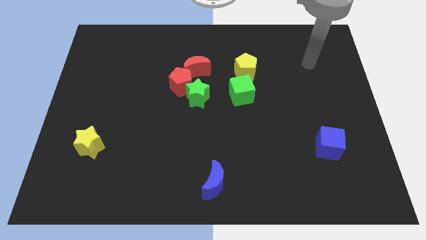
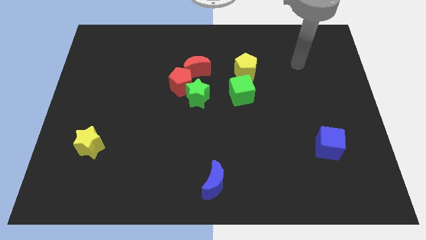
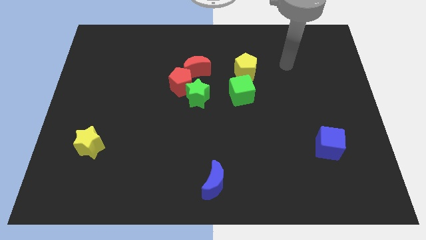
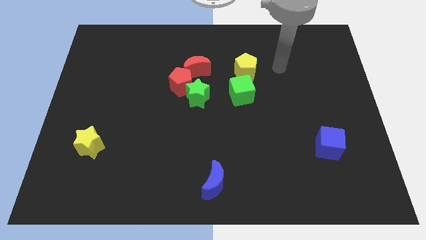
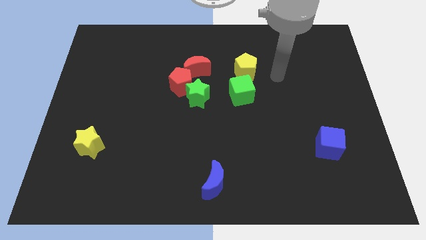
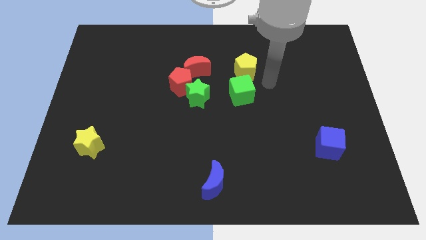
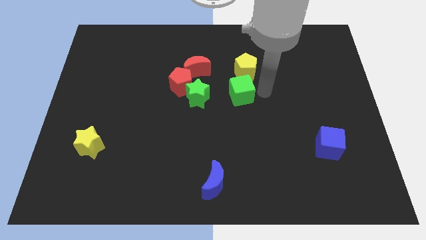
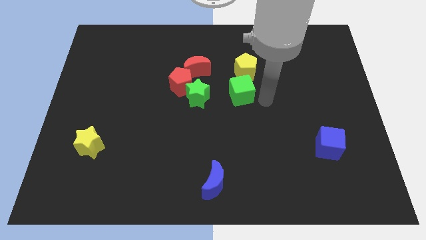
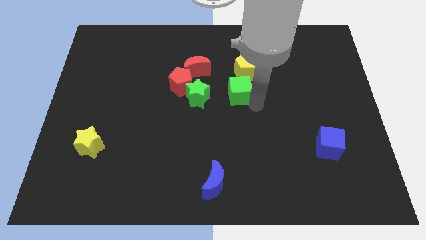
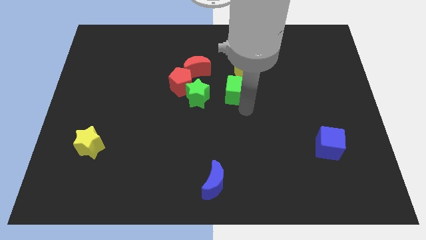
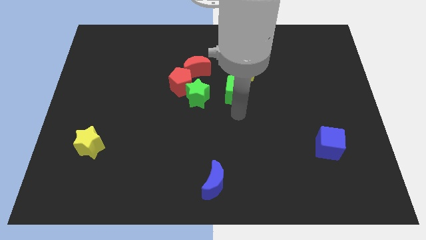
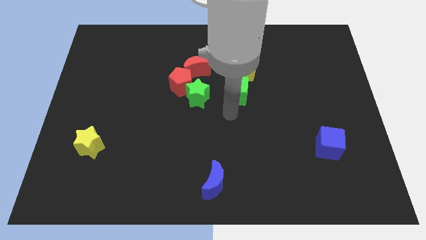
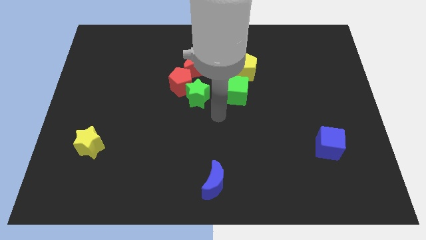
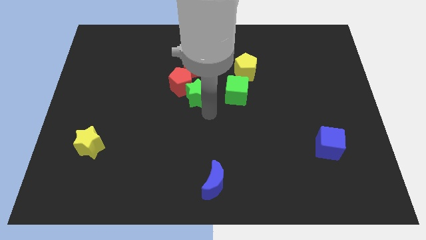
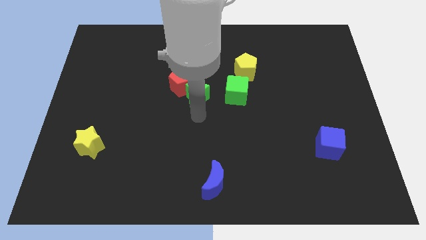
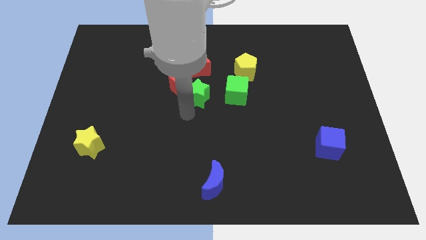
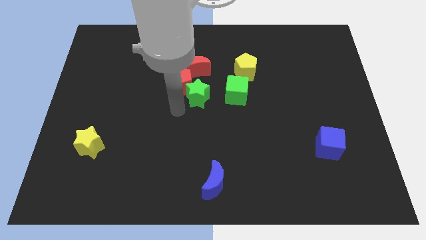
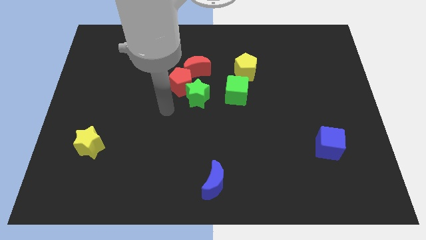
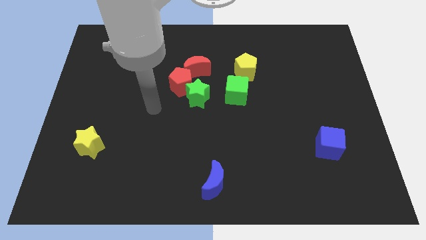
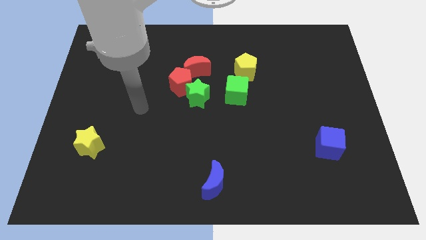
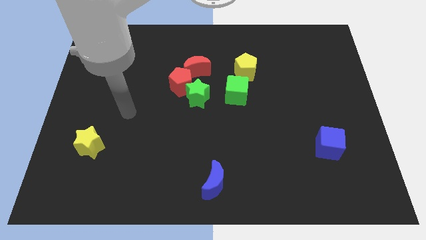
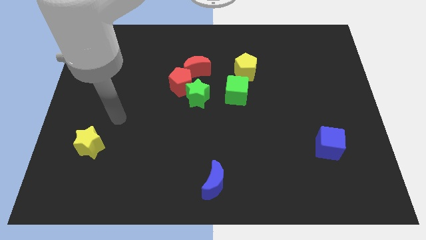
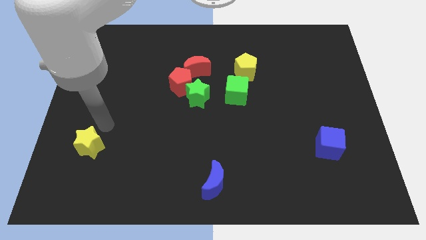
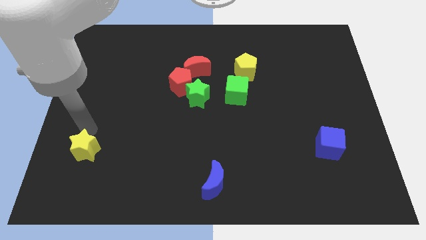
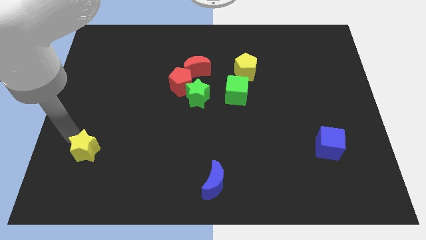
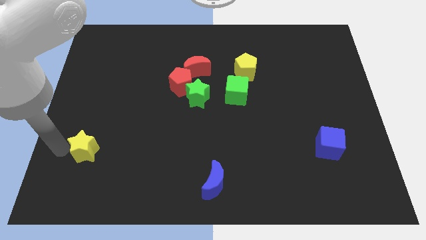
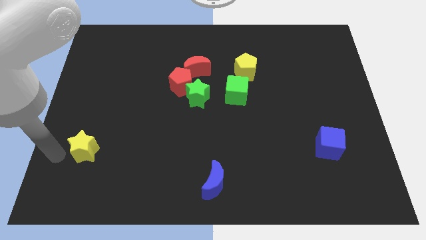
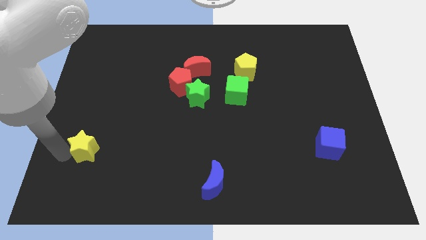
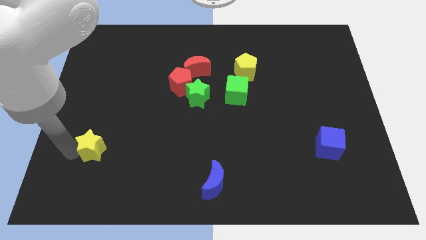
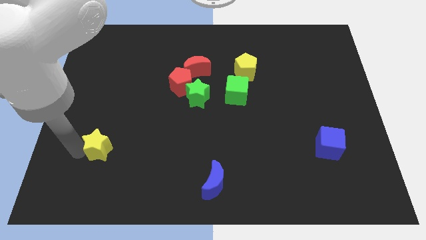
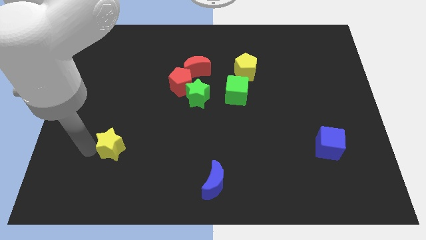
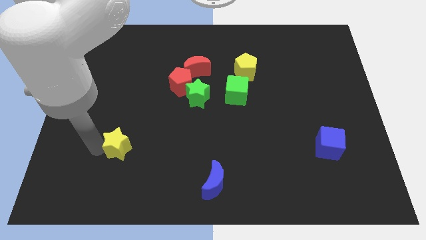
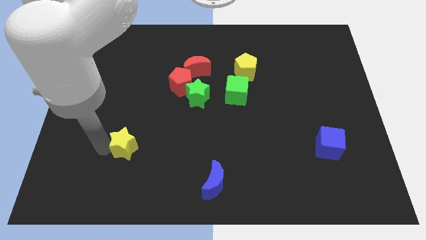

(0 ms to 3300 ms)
slightly slide the yellow star to the right

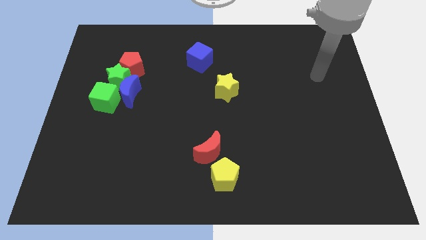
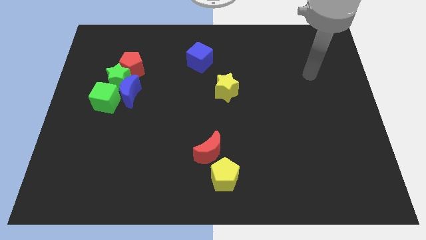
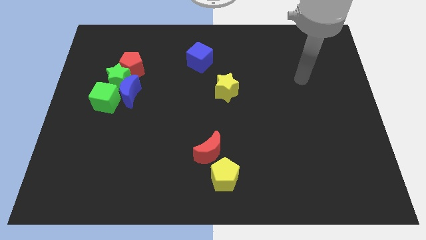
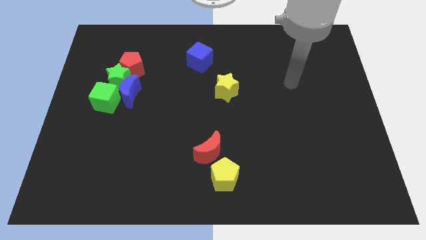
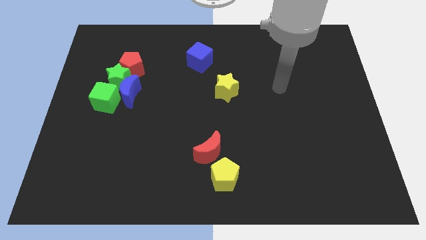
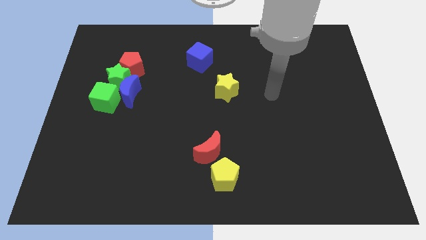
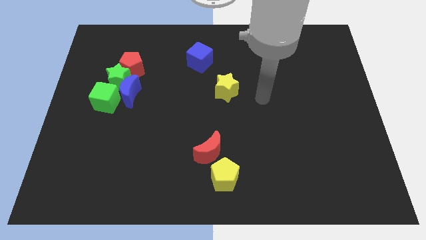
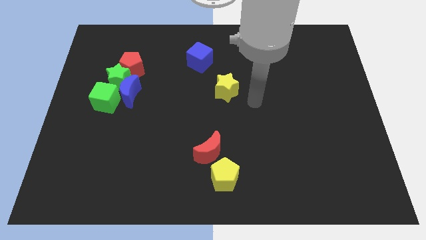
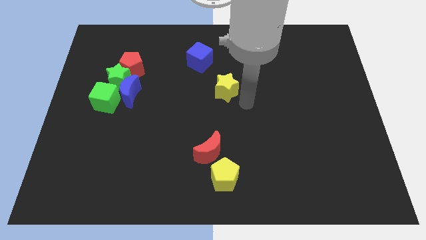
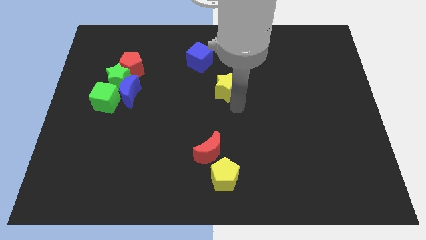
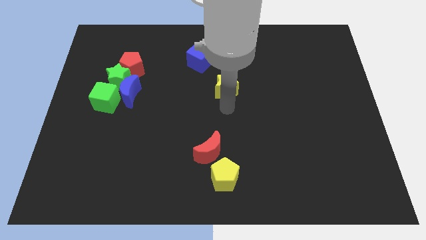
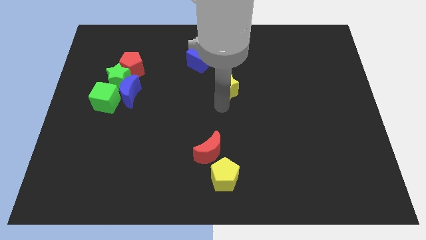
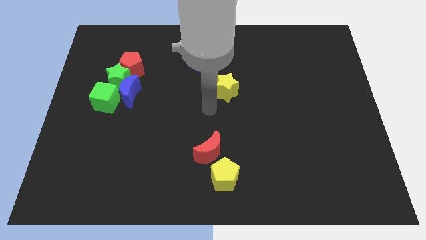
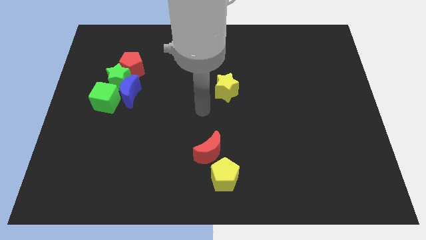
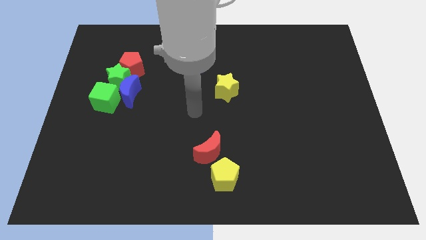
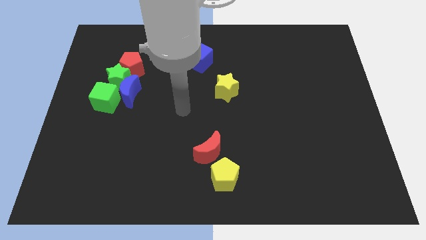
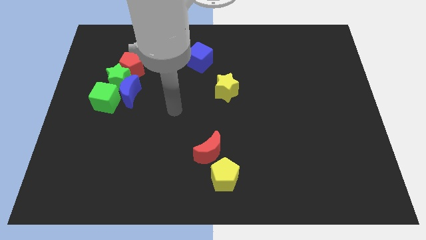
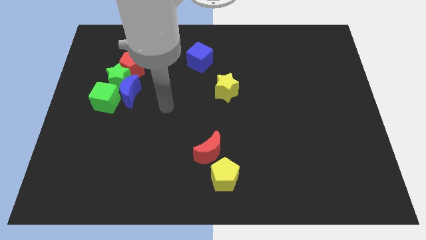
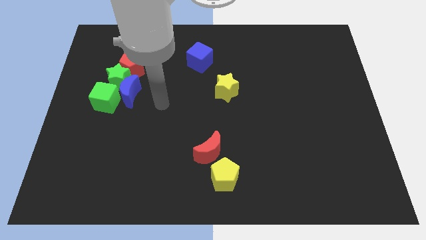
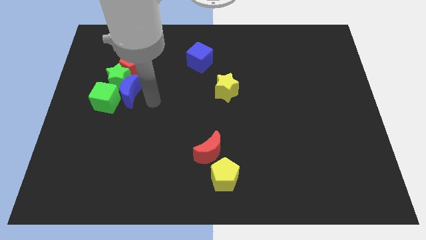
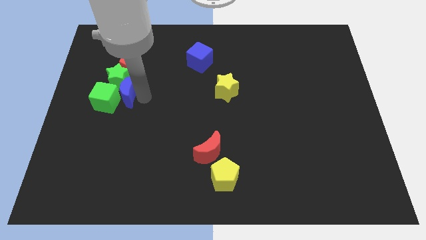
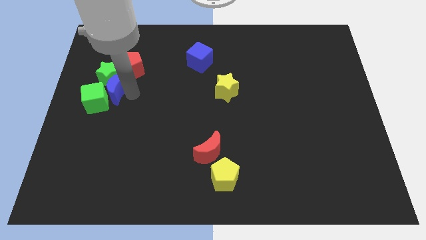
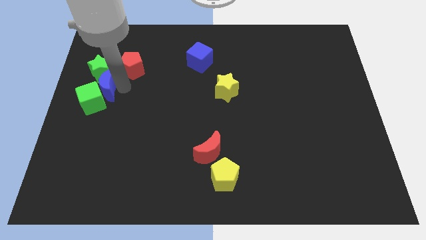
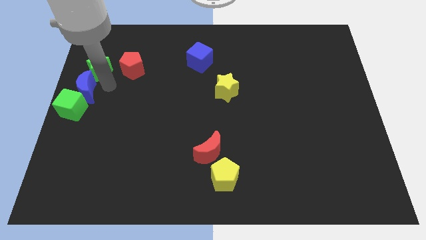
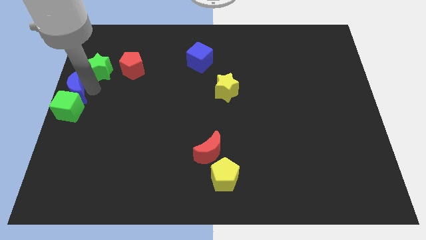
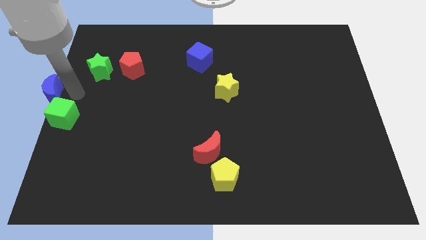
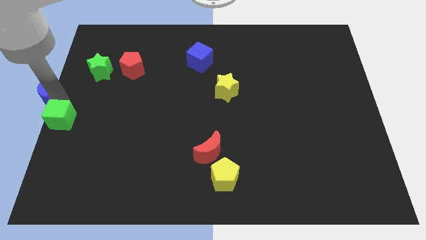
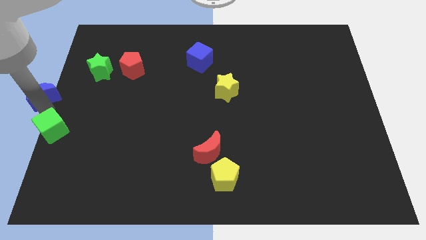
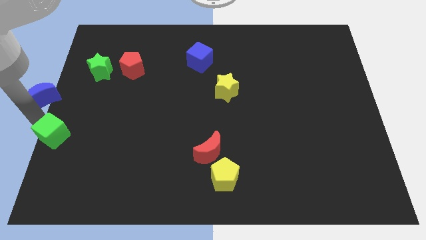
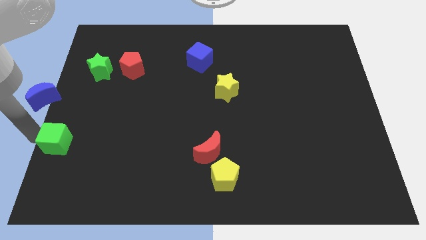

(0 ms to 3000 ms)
move the green cube down a little bit

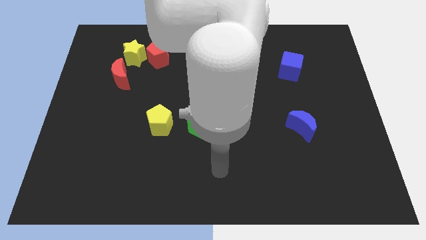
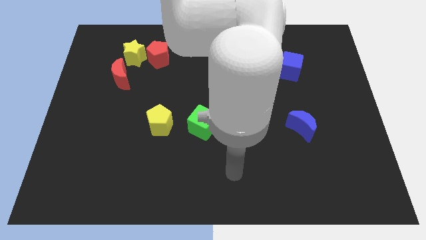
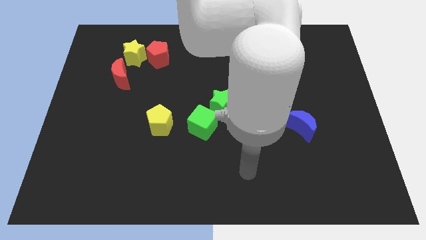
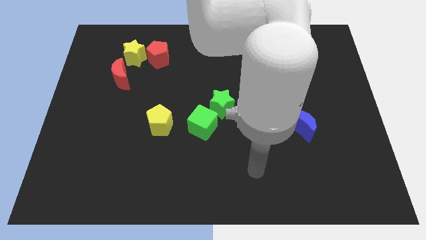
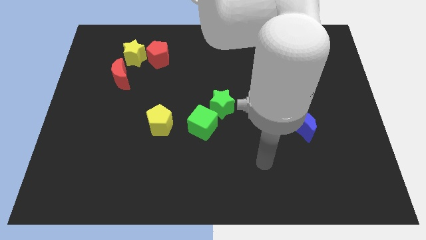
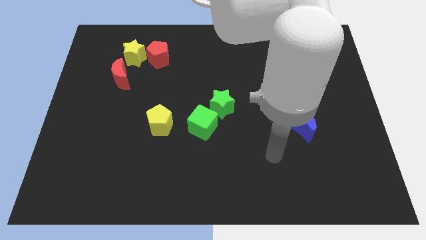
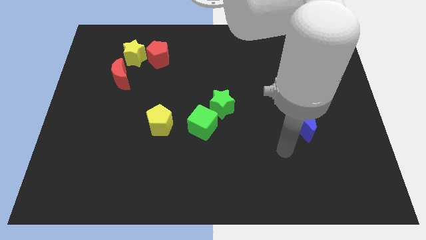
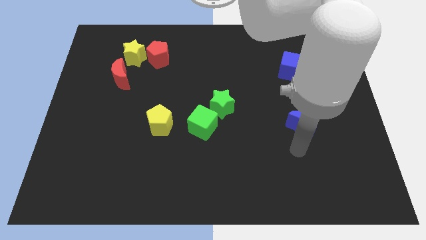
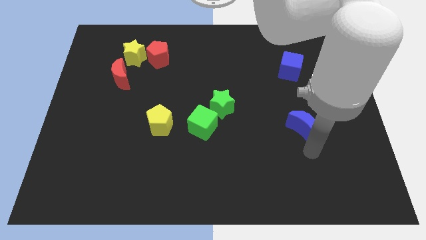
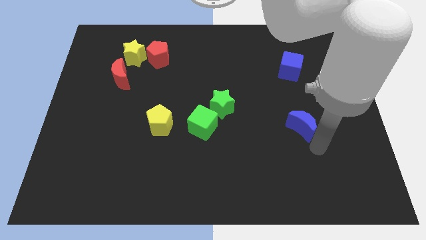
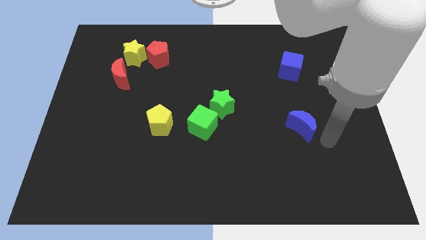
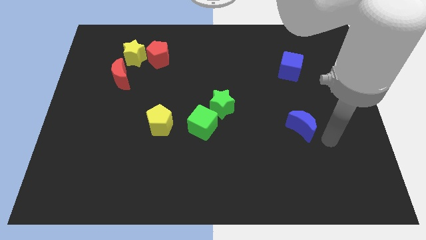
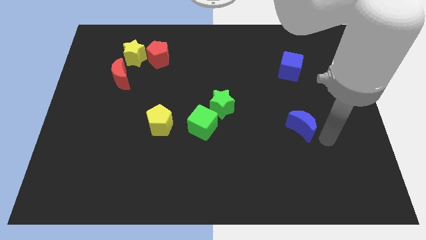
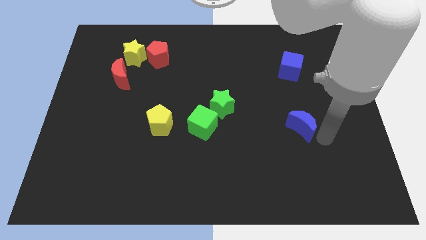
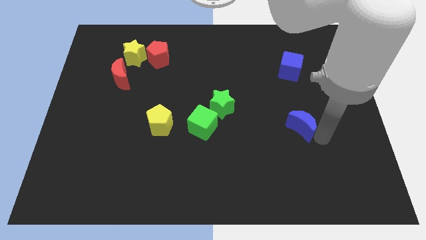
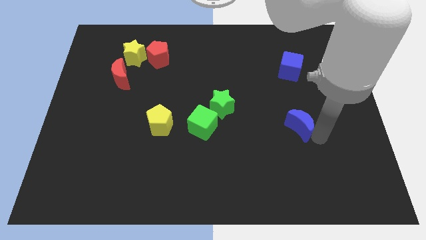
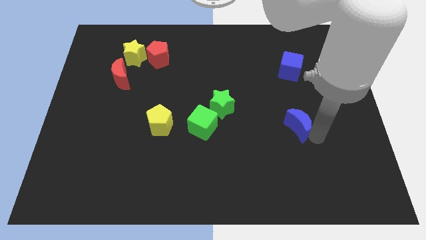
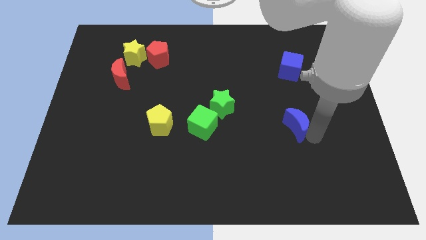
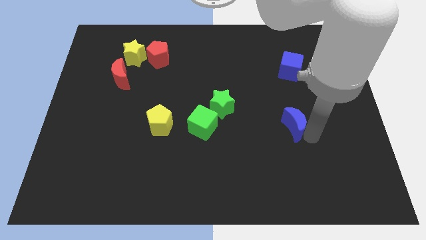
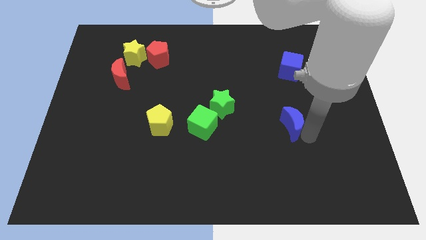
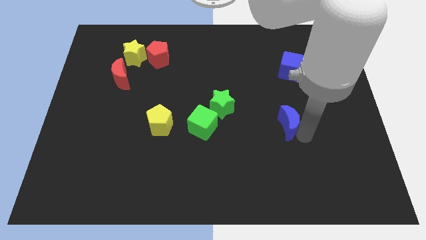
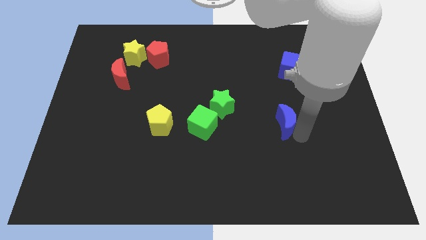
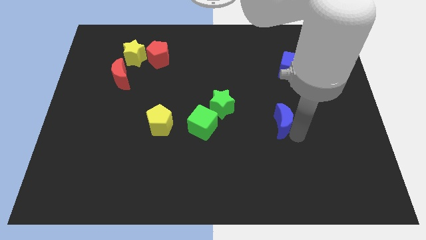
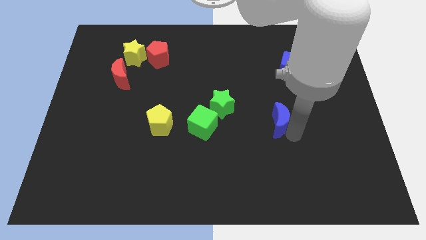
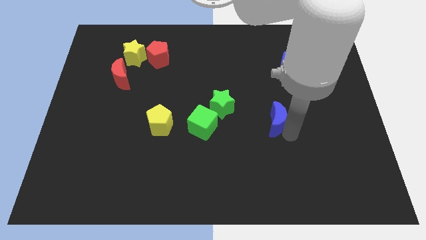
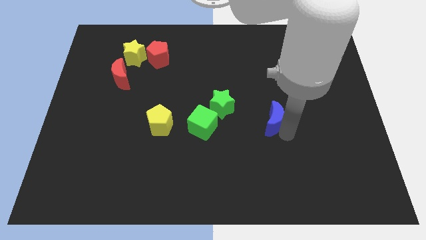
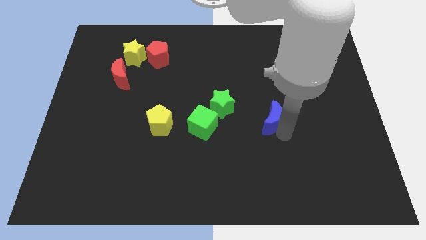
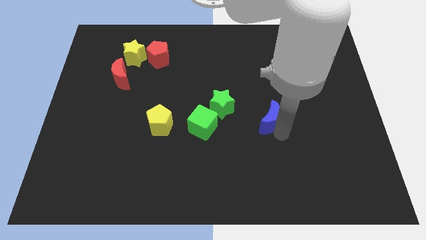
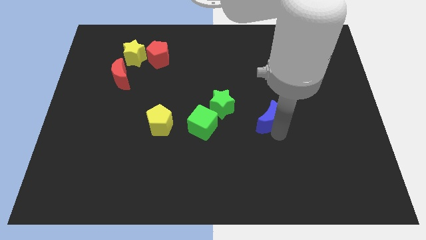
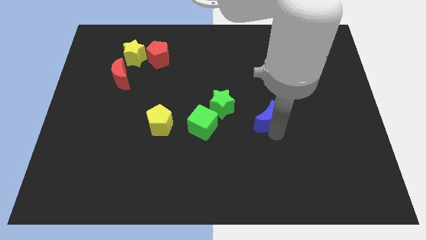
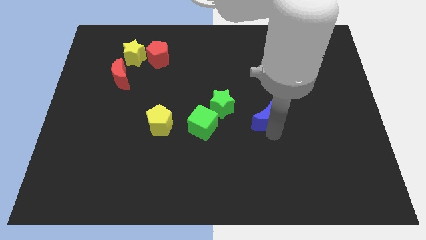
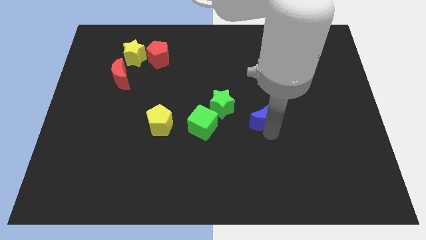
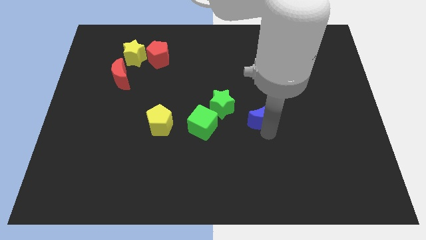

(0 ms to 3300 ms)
move the blue moon up and then to the left a little
